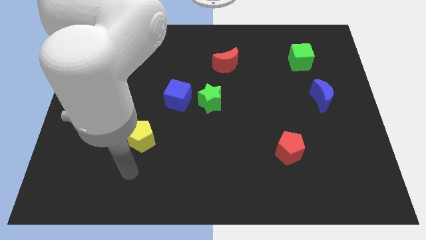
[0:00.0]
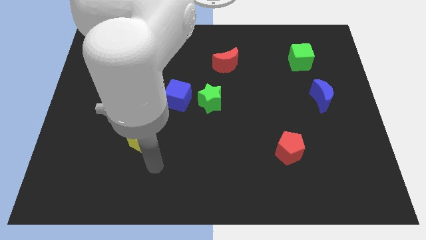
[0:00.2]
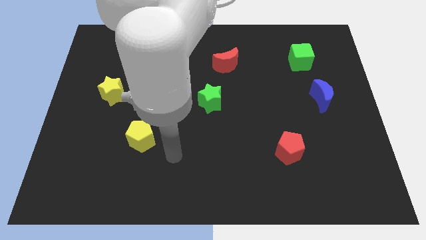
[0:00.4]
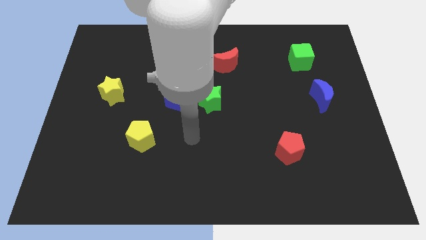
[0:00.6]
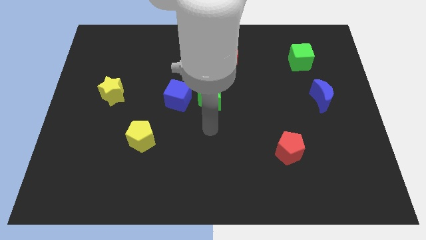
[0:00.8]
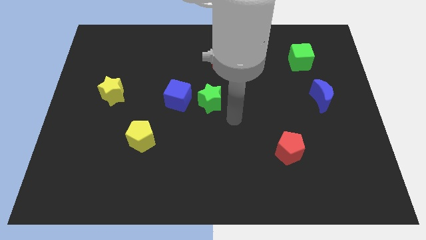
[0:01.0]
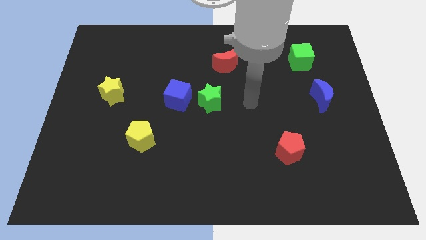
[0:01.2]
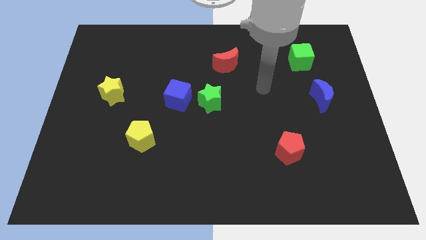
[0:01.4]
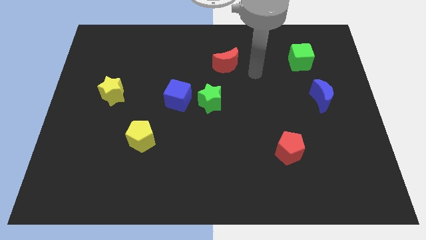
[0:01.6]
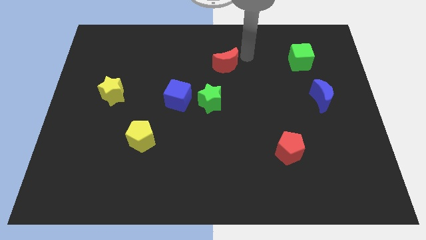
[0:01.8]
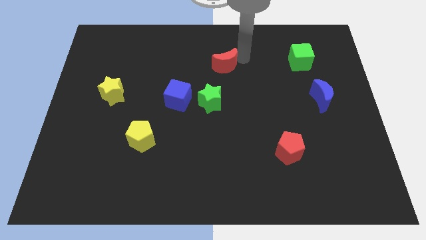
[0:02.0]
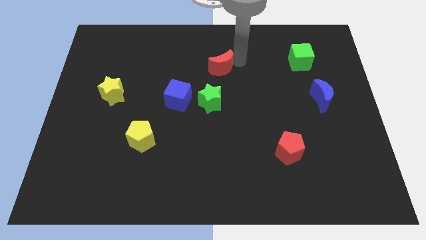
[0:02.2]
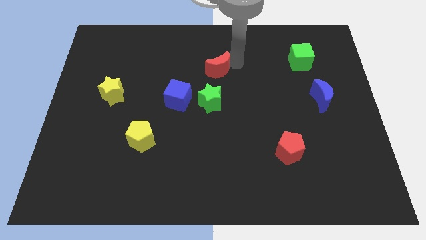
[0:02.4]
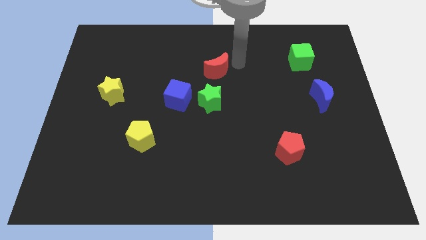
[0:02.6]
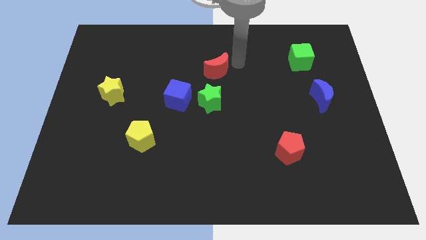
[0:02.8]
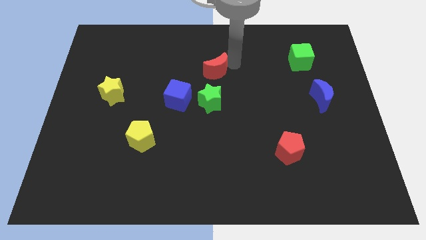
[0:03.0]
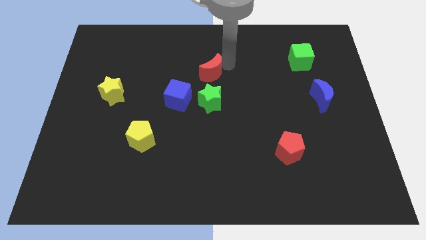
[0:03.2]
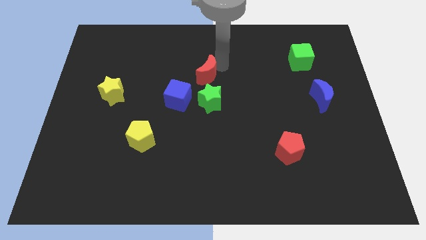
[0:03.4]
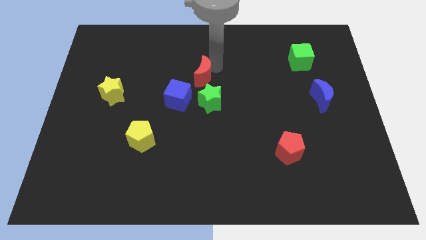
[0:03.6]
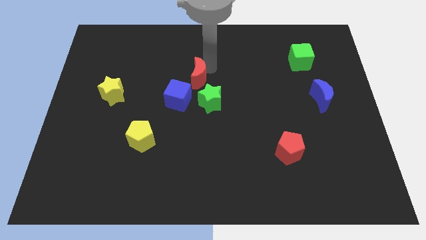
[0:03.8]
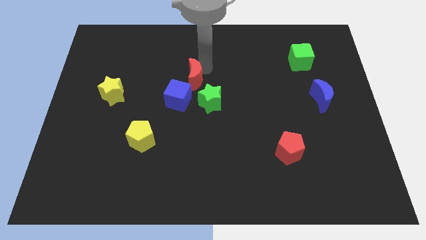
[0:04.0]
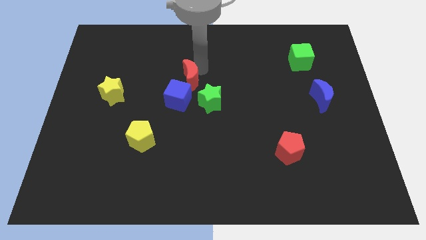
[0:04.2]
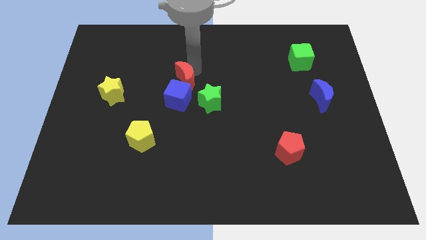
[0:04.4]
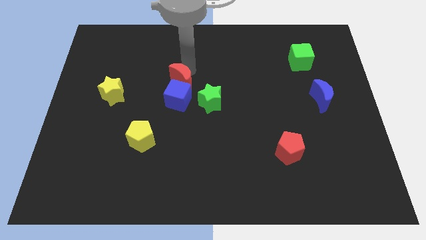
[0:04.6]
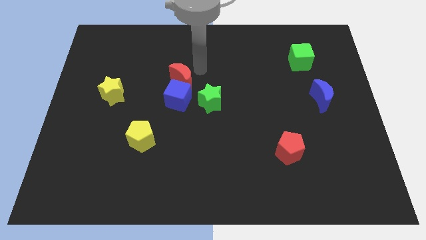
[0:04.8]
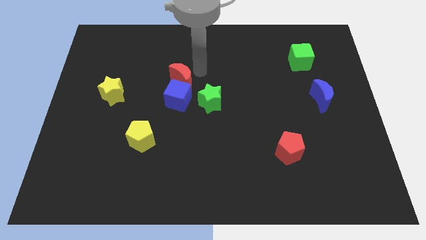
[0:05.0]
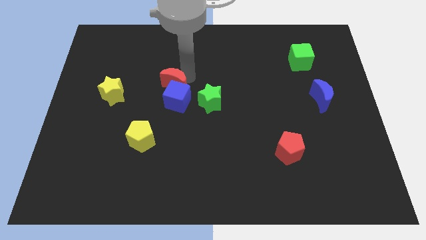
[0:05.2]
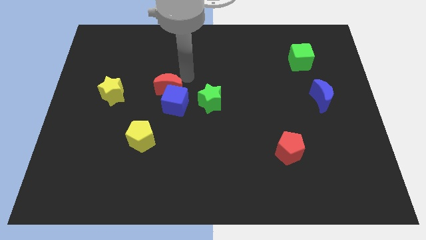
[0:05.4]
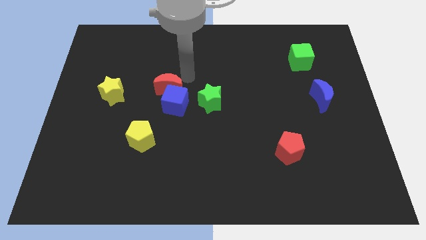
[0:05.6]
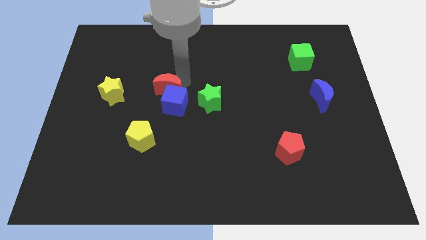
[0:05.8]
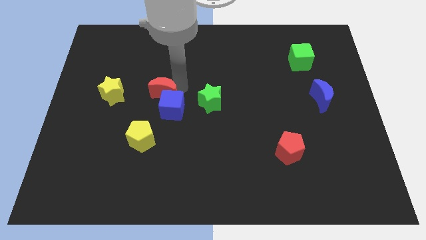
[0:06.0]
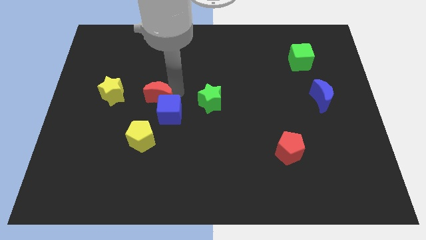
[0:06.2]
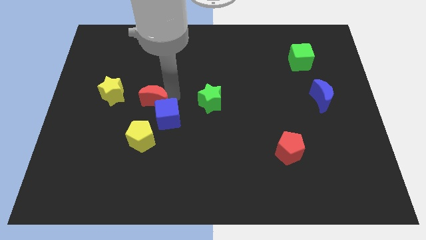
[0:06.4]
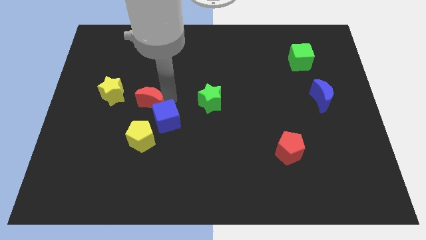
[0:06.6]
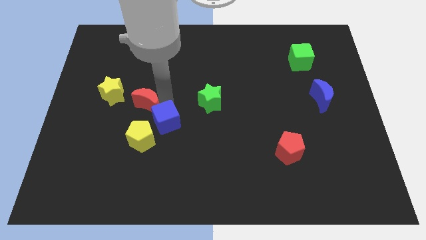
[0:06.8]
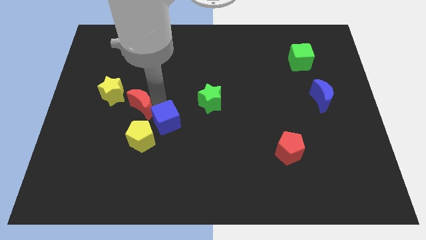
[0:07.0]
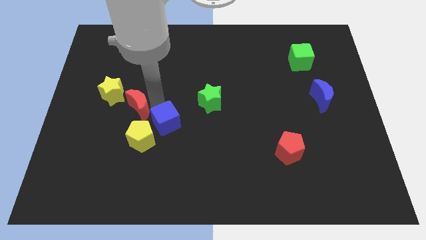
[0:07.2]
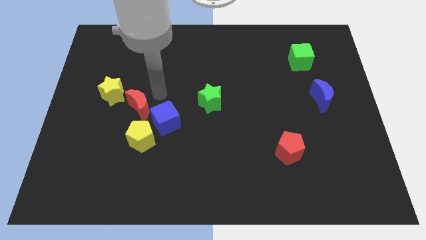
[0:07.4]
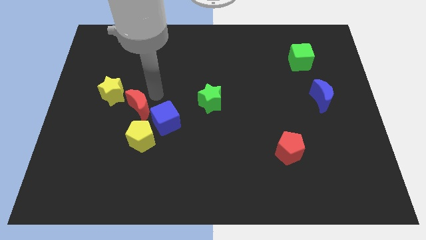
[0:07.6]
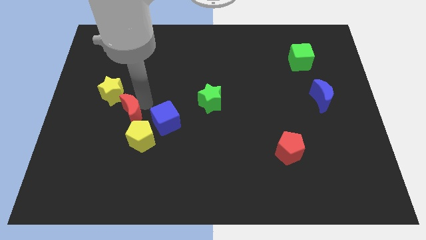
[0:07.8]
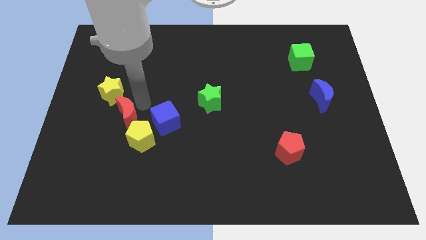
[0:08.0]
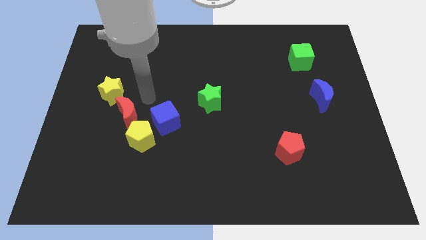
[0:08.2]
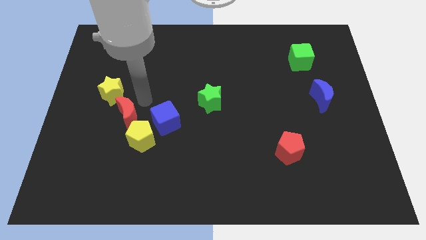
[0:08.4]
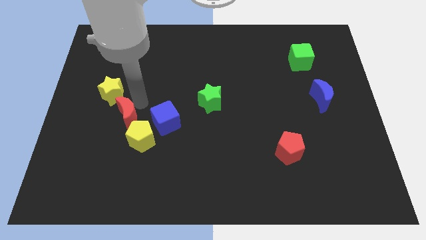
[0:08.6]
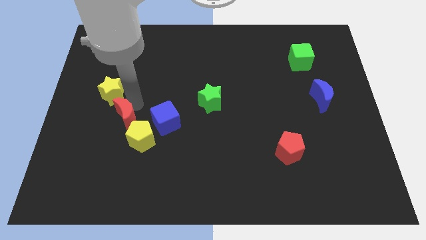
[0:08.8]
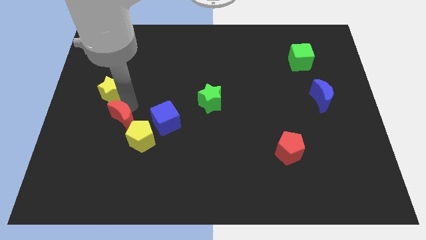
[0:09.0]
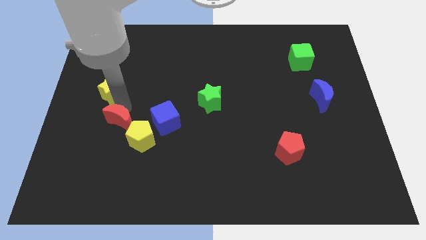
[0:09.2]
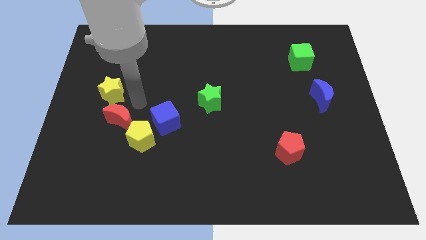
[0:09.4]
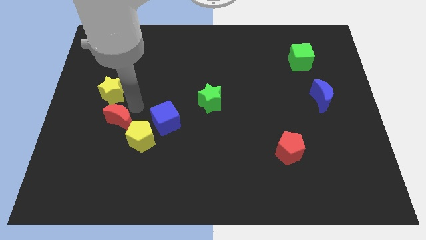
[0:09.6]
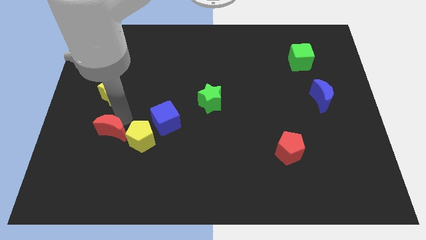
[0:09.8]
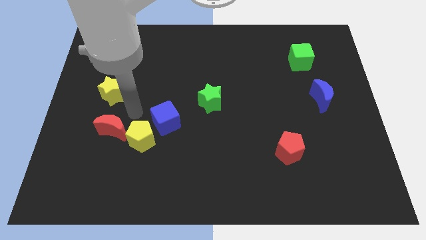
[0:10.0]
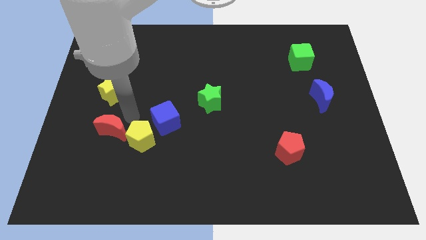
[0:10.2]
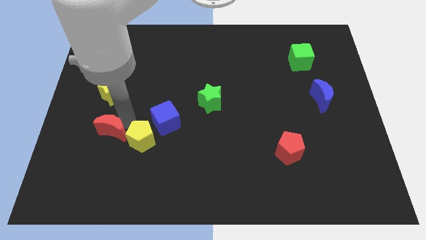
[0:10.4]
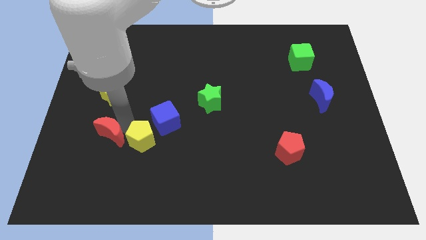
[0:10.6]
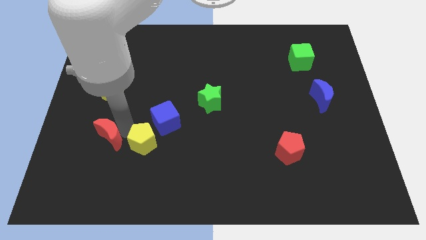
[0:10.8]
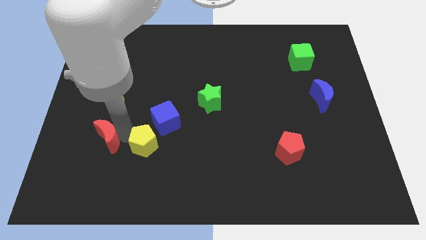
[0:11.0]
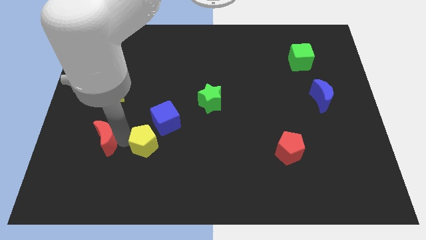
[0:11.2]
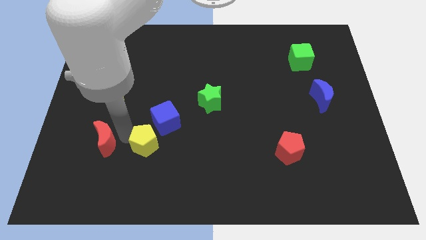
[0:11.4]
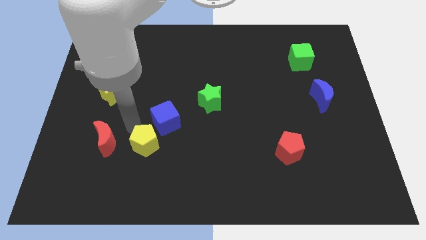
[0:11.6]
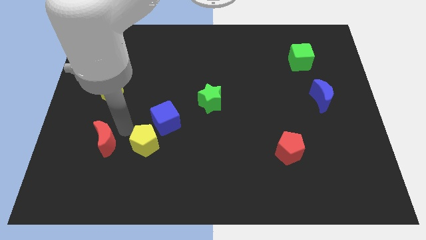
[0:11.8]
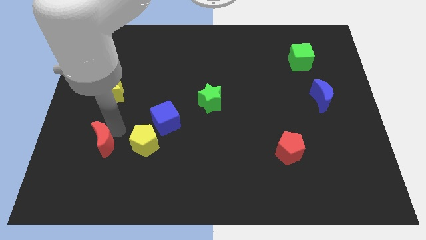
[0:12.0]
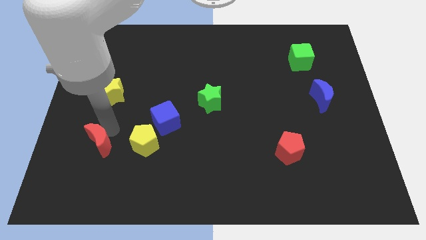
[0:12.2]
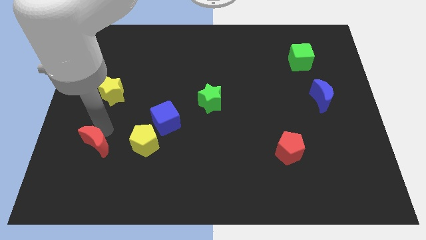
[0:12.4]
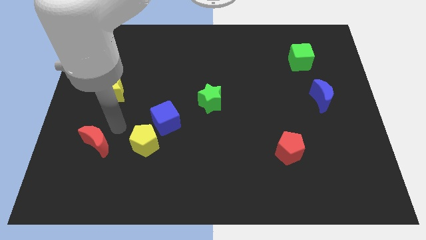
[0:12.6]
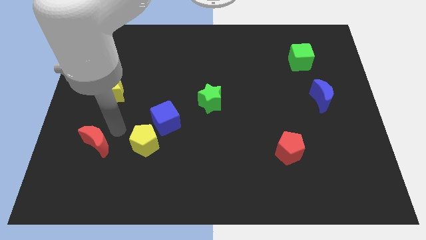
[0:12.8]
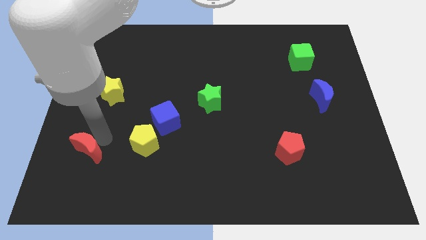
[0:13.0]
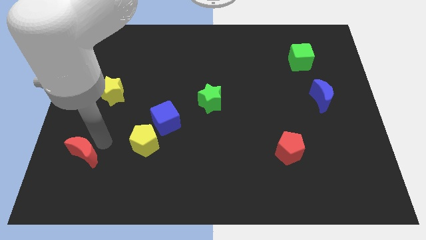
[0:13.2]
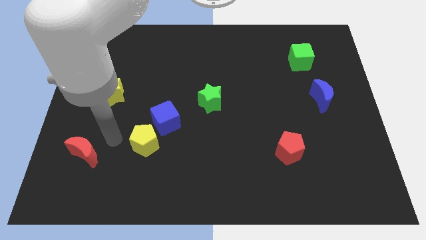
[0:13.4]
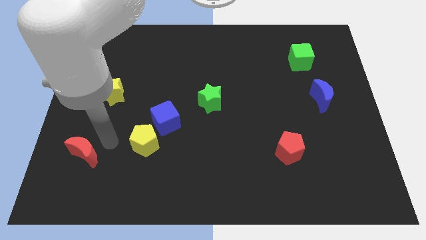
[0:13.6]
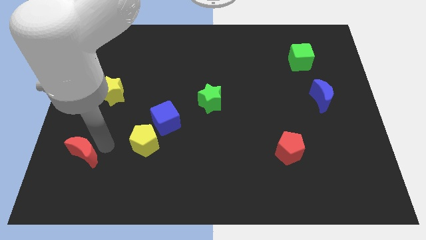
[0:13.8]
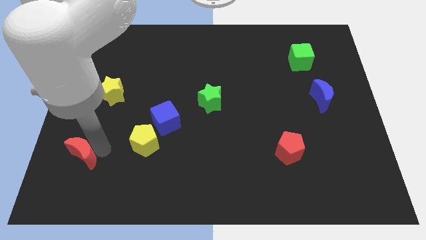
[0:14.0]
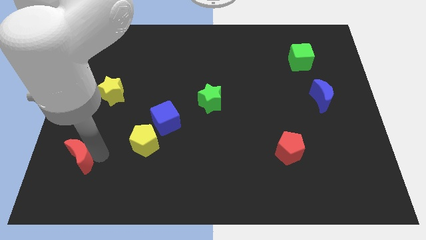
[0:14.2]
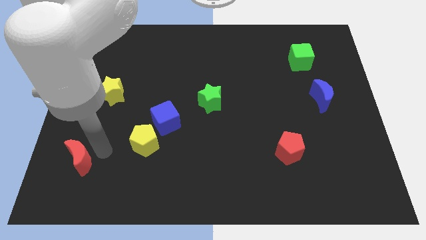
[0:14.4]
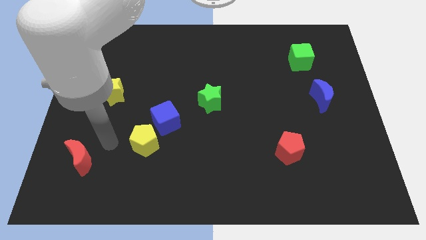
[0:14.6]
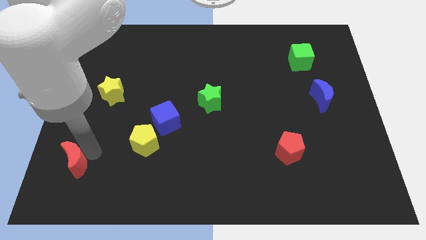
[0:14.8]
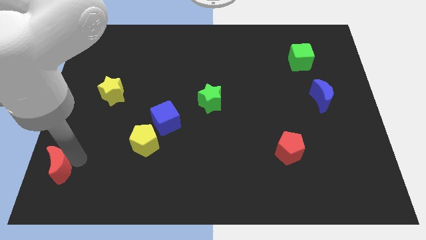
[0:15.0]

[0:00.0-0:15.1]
slide the red moon to the bottom left corner
